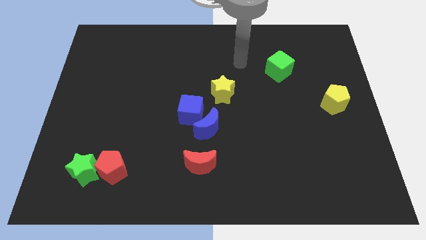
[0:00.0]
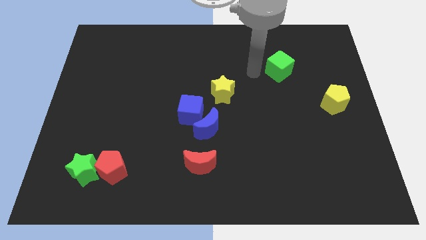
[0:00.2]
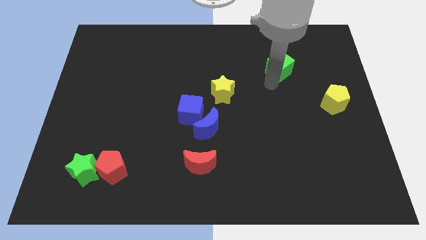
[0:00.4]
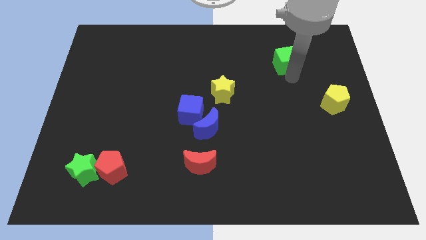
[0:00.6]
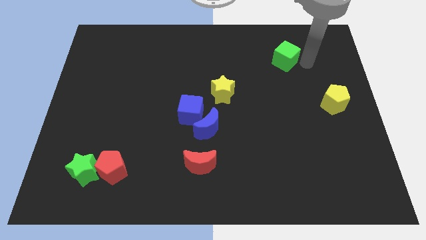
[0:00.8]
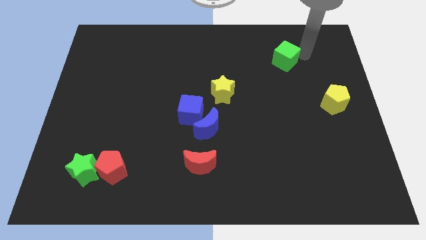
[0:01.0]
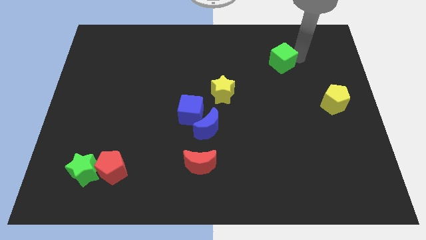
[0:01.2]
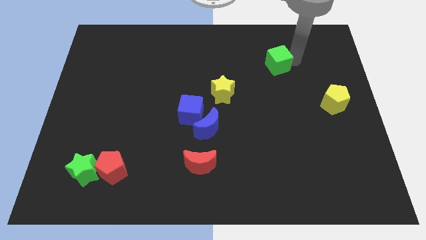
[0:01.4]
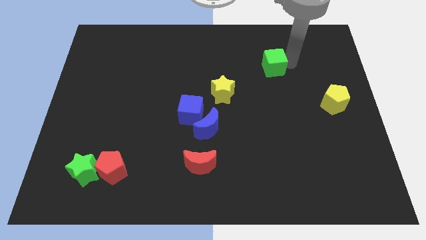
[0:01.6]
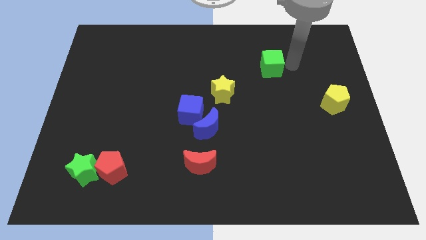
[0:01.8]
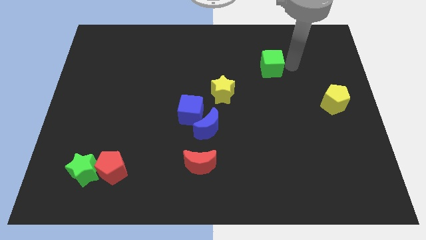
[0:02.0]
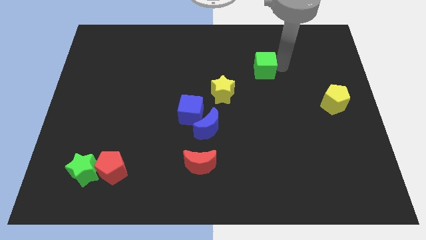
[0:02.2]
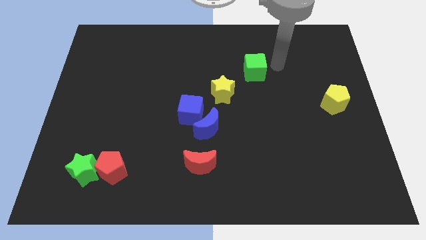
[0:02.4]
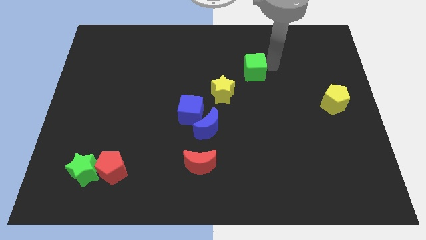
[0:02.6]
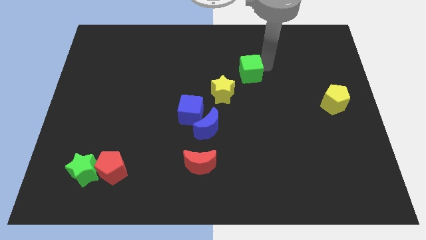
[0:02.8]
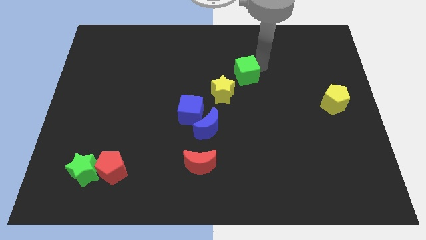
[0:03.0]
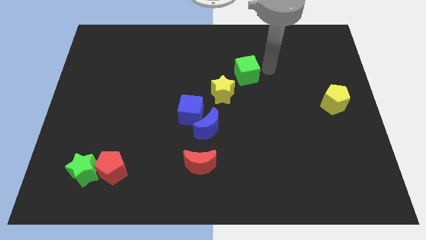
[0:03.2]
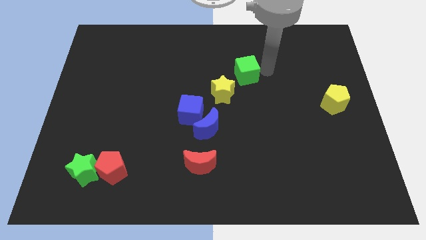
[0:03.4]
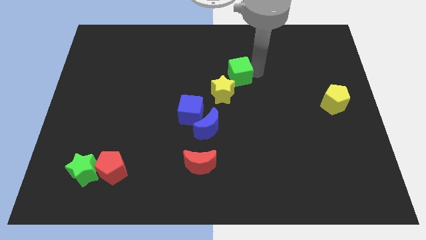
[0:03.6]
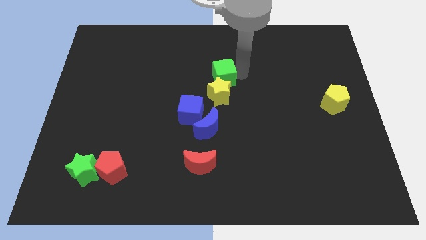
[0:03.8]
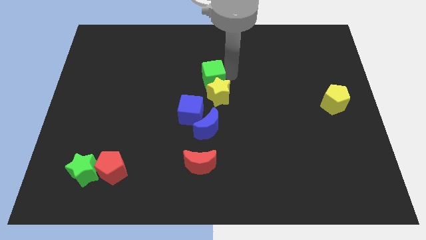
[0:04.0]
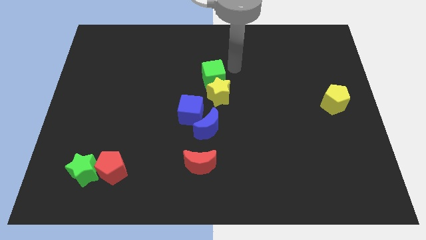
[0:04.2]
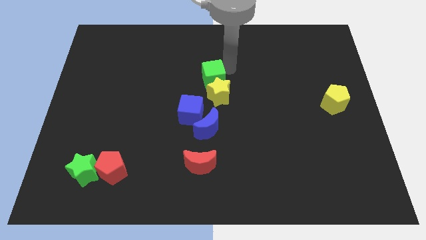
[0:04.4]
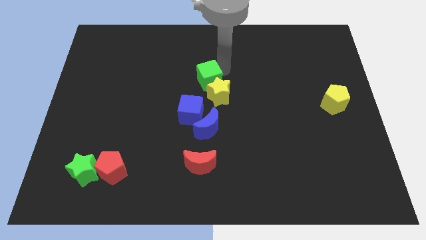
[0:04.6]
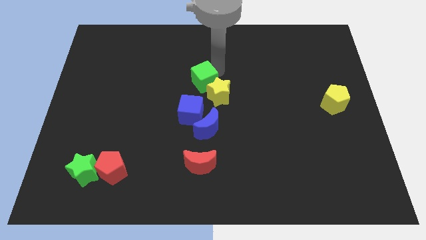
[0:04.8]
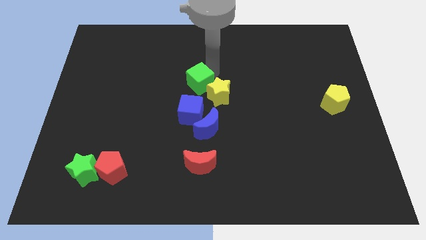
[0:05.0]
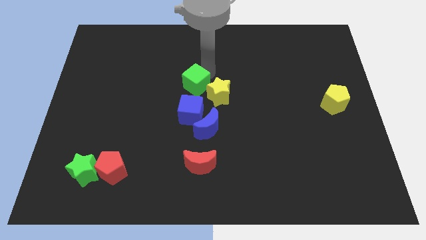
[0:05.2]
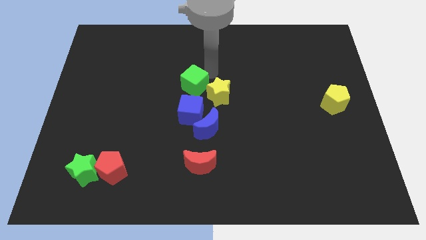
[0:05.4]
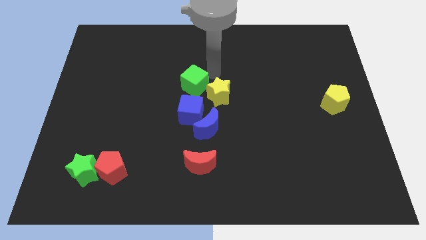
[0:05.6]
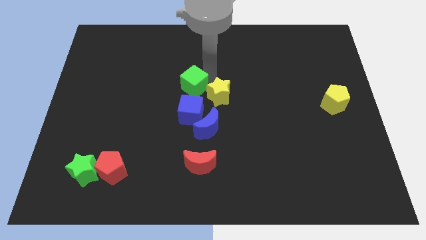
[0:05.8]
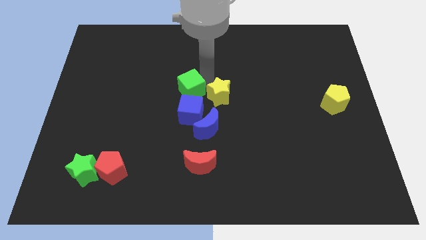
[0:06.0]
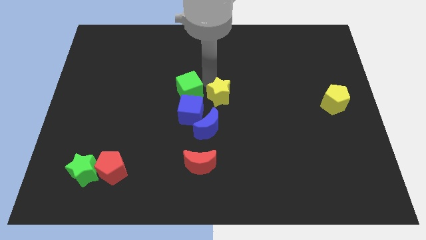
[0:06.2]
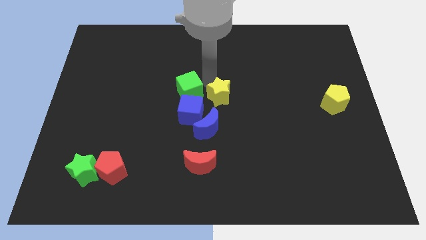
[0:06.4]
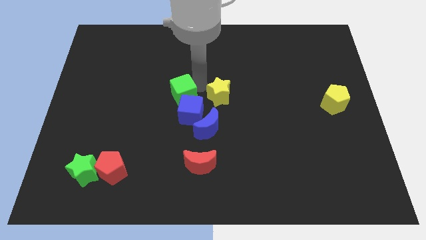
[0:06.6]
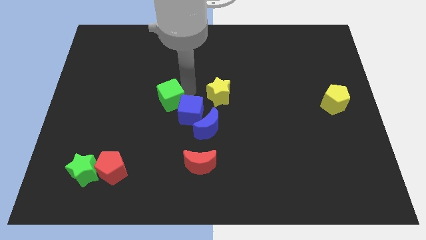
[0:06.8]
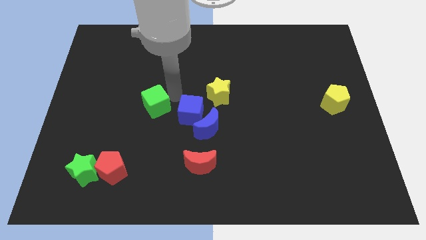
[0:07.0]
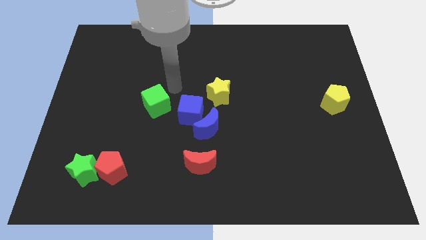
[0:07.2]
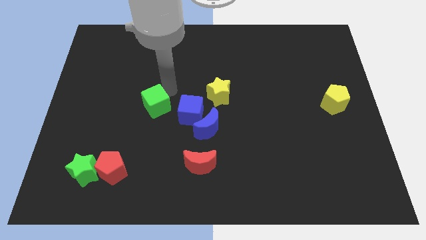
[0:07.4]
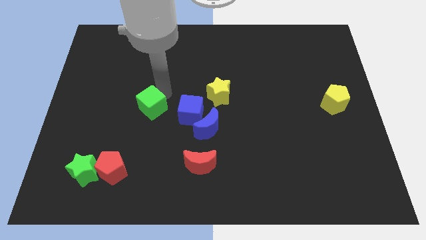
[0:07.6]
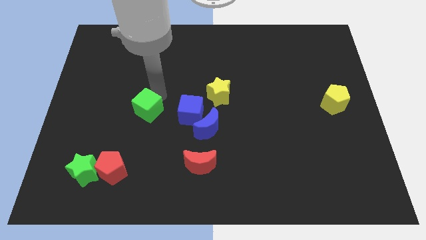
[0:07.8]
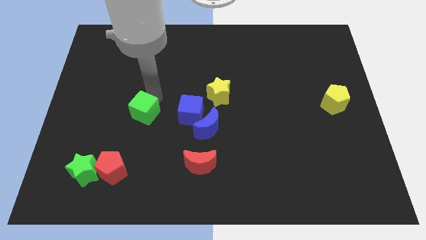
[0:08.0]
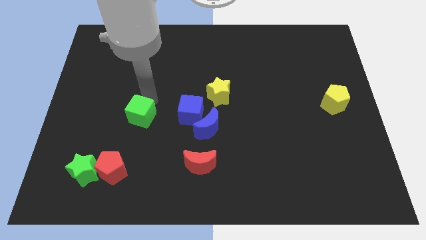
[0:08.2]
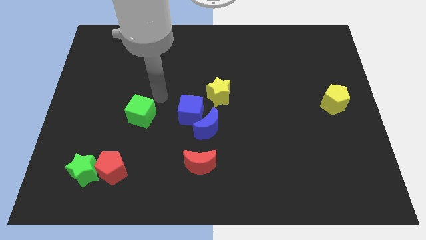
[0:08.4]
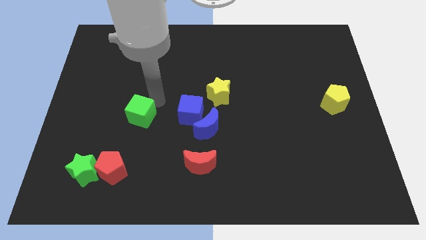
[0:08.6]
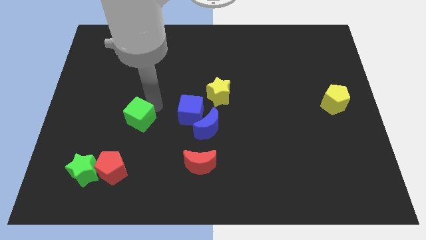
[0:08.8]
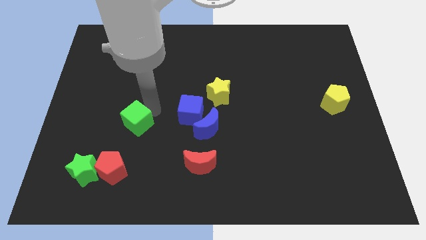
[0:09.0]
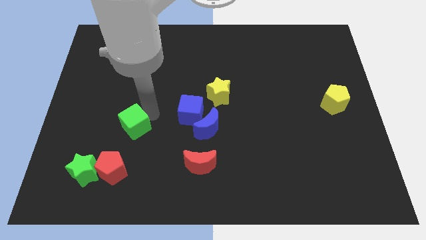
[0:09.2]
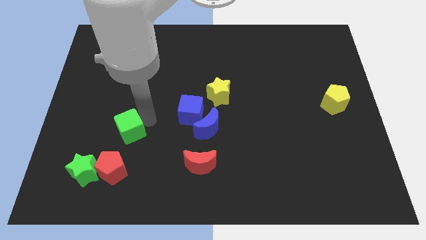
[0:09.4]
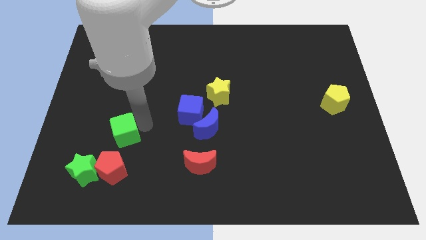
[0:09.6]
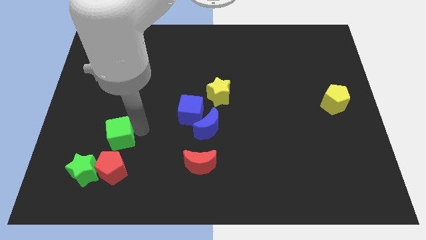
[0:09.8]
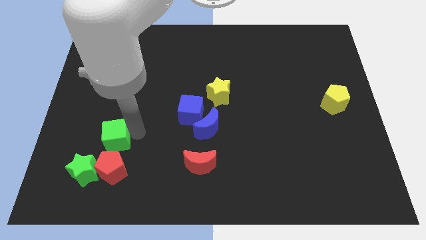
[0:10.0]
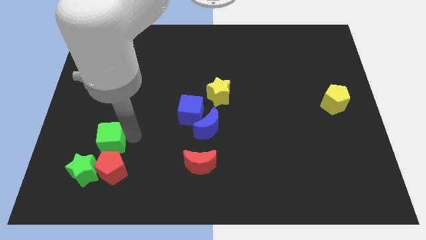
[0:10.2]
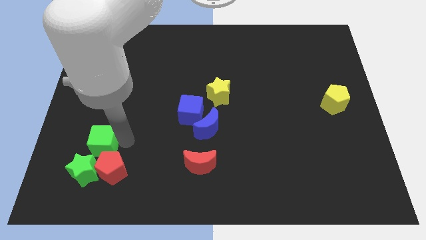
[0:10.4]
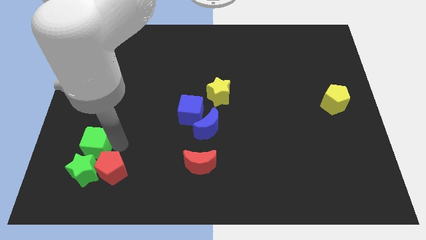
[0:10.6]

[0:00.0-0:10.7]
slide the green cube next to the green star

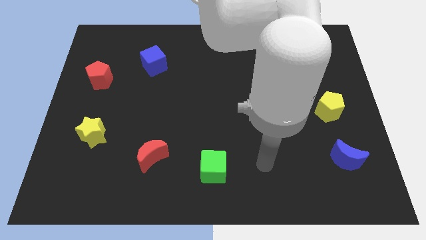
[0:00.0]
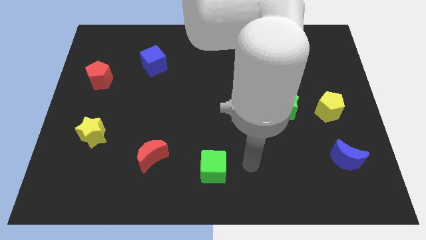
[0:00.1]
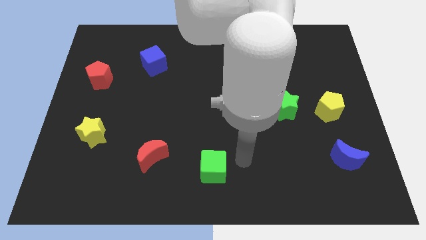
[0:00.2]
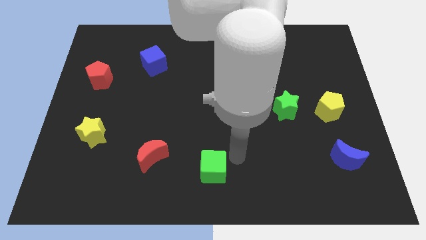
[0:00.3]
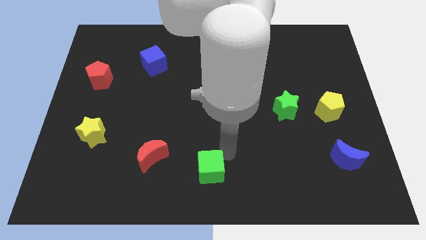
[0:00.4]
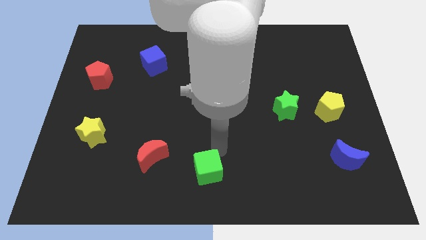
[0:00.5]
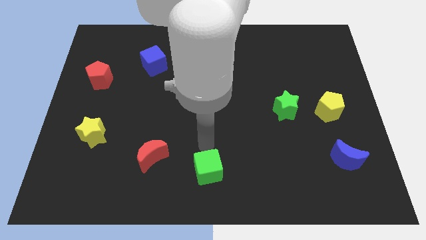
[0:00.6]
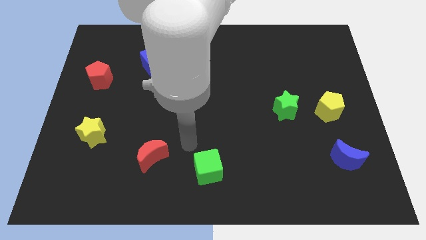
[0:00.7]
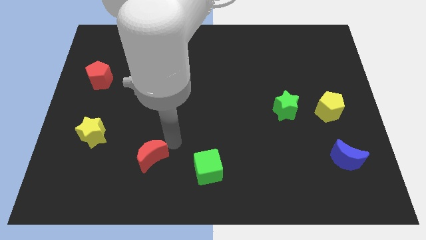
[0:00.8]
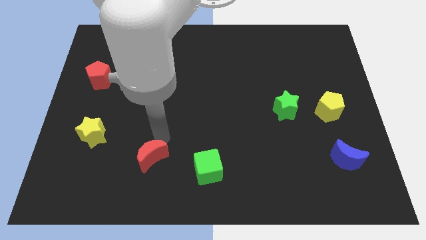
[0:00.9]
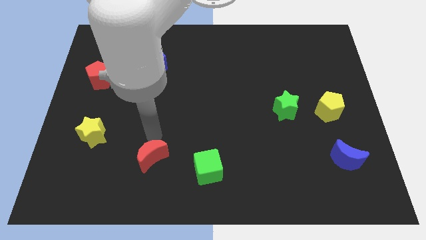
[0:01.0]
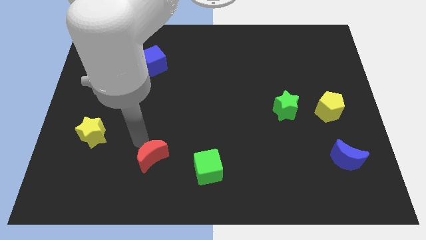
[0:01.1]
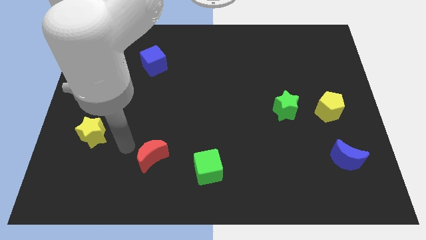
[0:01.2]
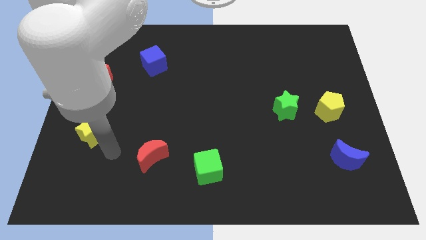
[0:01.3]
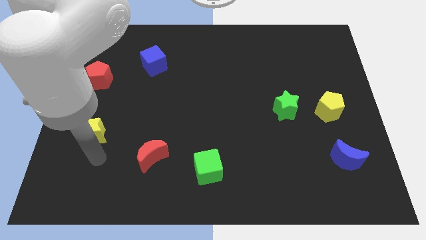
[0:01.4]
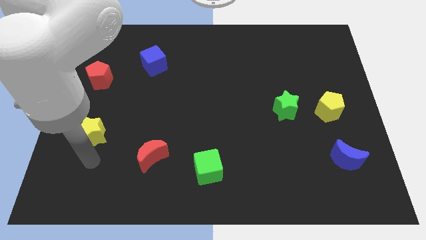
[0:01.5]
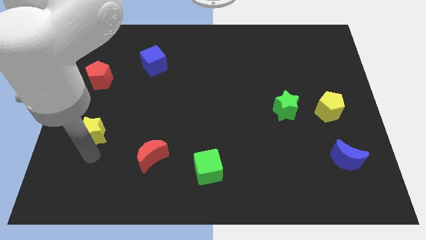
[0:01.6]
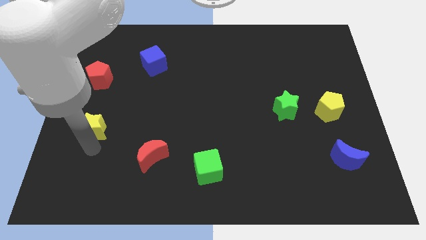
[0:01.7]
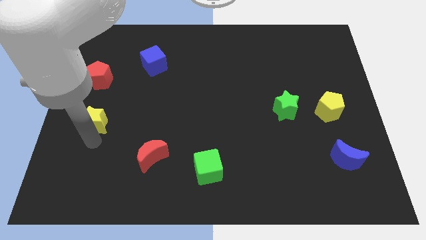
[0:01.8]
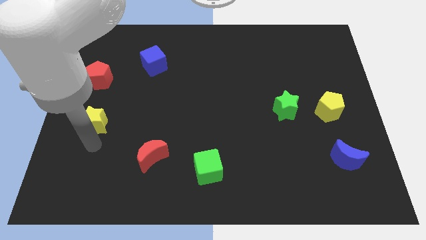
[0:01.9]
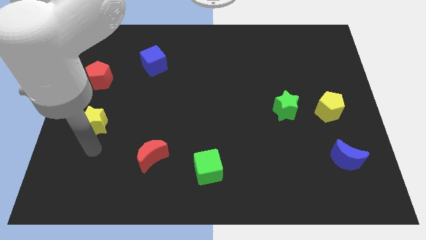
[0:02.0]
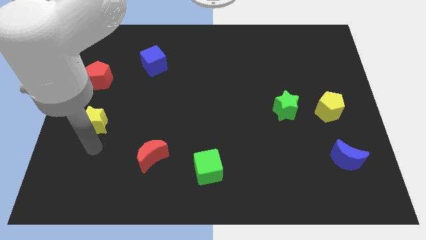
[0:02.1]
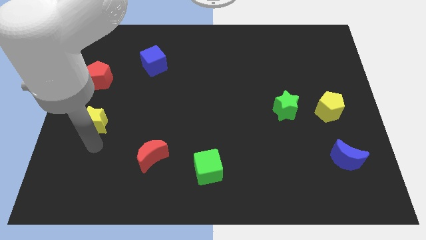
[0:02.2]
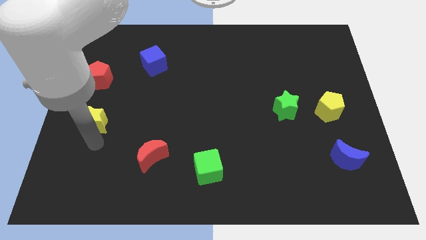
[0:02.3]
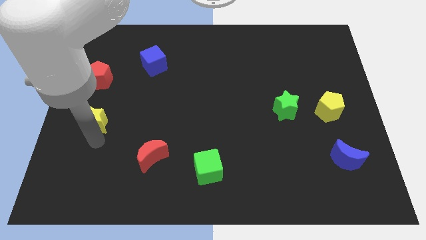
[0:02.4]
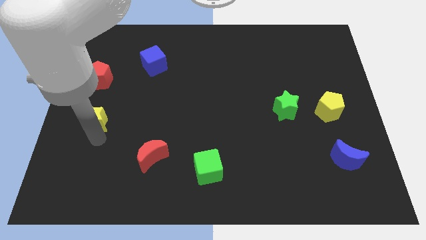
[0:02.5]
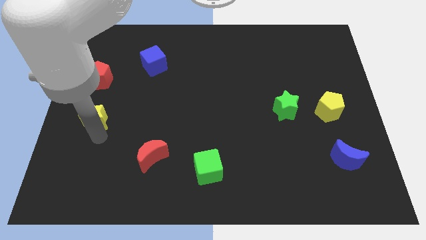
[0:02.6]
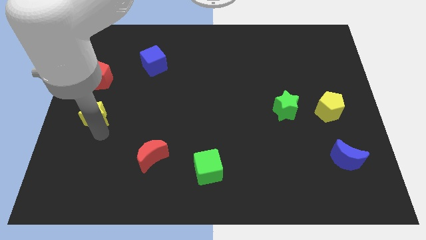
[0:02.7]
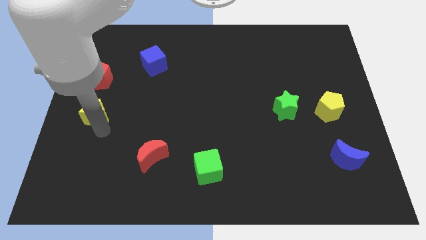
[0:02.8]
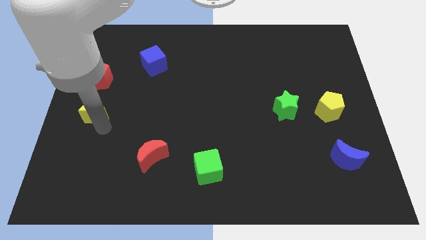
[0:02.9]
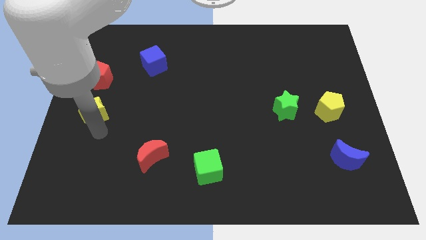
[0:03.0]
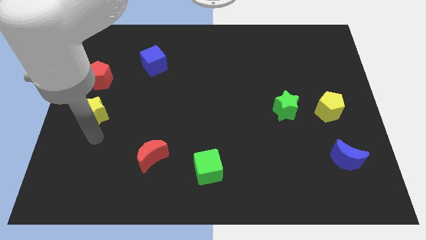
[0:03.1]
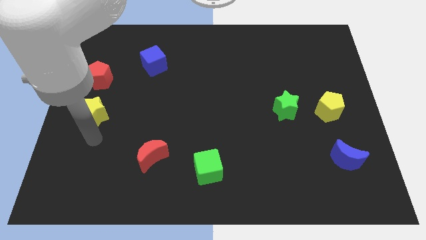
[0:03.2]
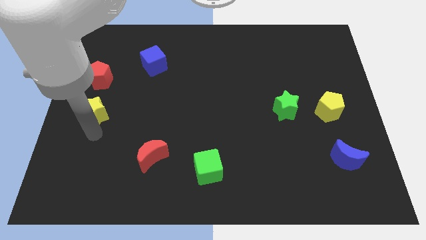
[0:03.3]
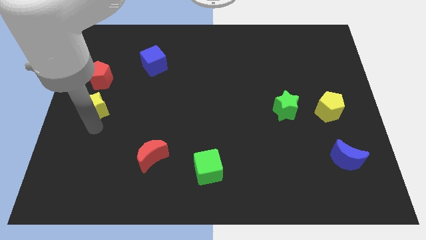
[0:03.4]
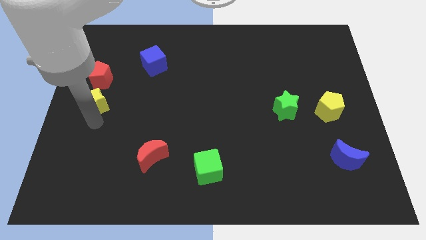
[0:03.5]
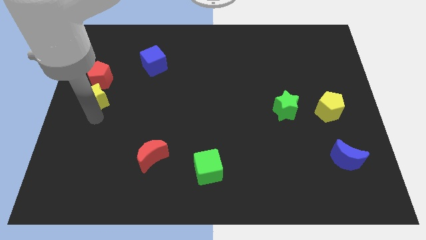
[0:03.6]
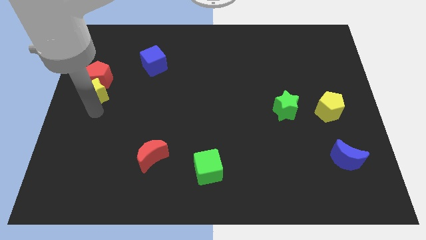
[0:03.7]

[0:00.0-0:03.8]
put the yellow star towards the red pentagon
